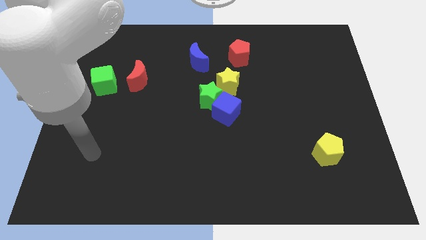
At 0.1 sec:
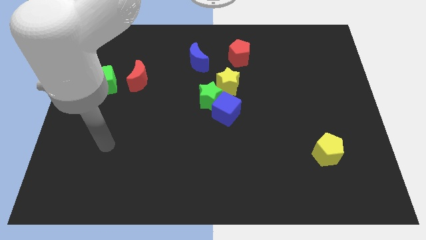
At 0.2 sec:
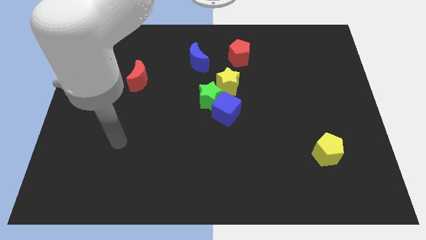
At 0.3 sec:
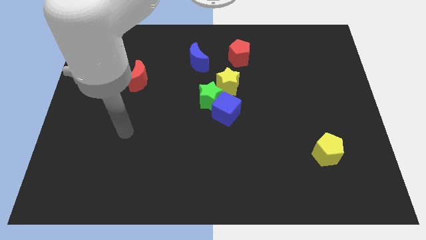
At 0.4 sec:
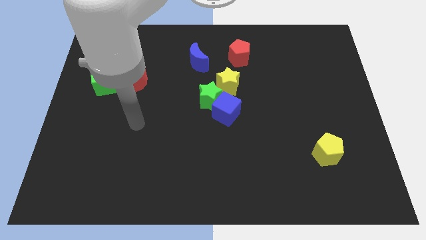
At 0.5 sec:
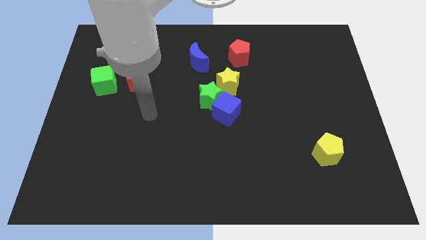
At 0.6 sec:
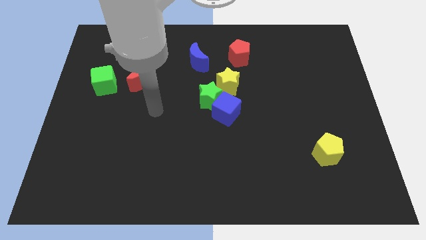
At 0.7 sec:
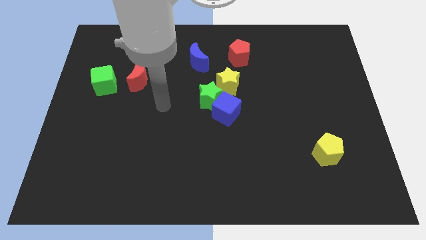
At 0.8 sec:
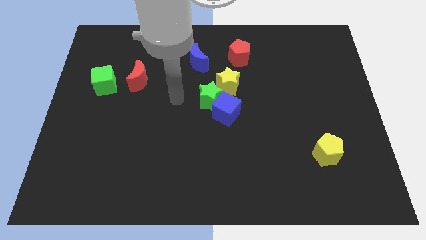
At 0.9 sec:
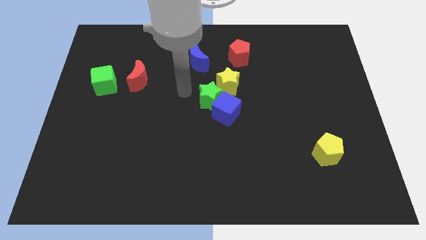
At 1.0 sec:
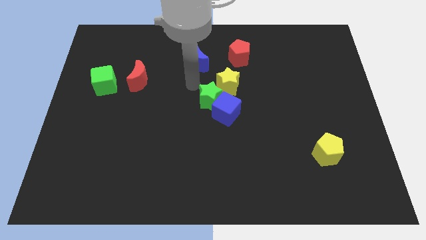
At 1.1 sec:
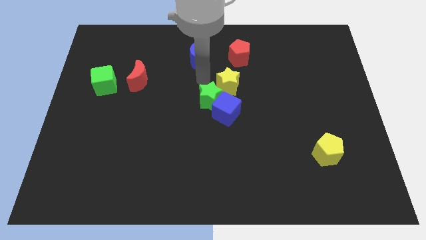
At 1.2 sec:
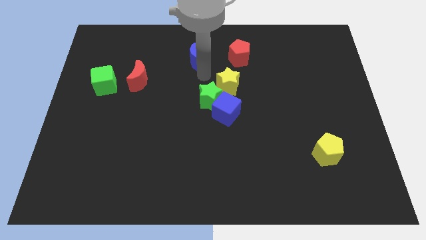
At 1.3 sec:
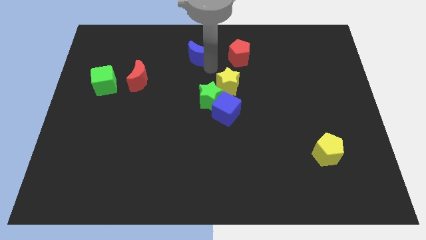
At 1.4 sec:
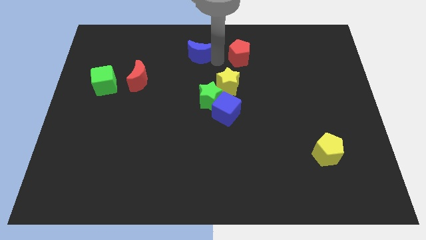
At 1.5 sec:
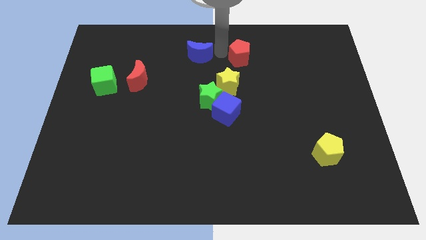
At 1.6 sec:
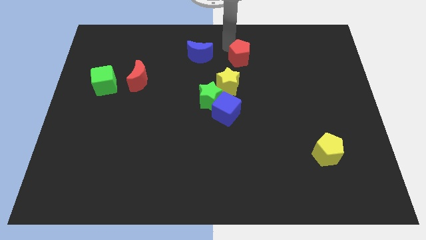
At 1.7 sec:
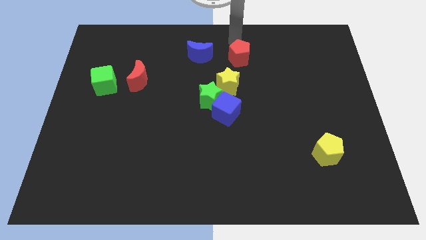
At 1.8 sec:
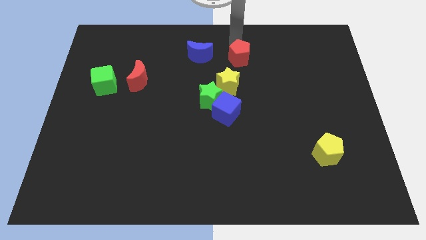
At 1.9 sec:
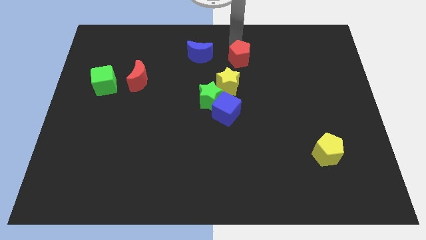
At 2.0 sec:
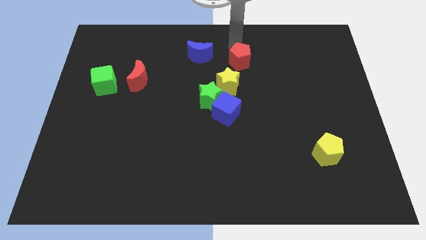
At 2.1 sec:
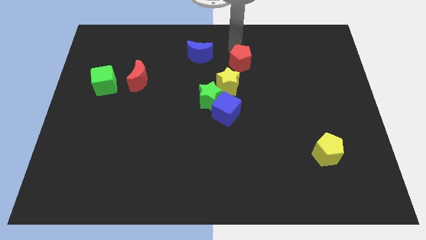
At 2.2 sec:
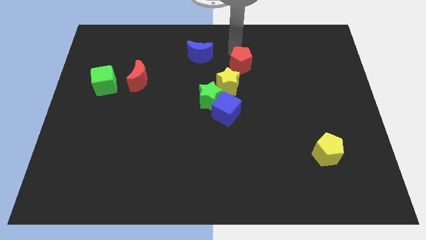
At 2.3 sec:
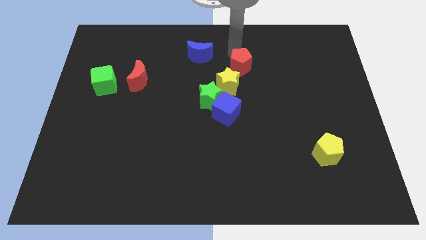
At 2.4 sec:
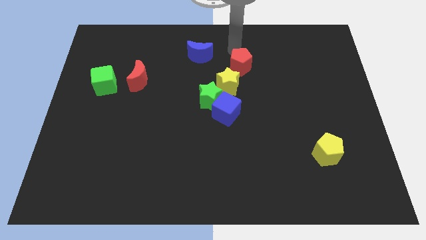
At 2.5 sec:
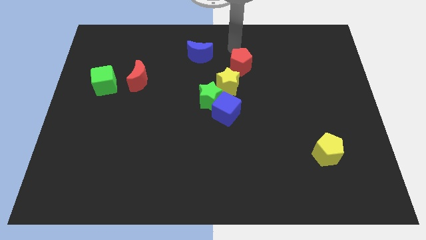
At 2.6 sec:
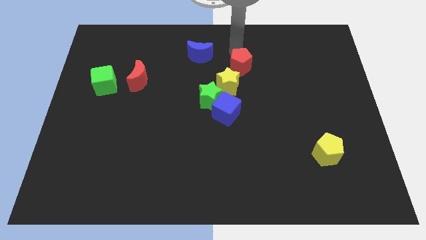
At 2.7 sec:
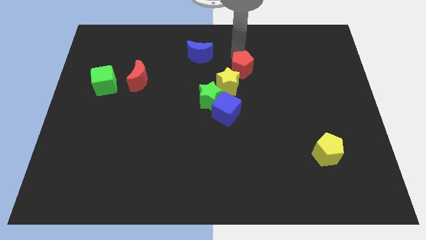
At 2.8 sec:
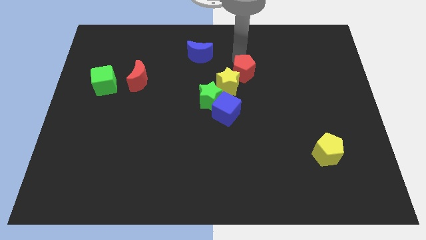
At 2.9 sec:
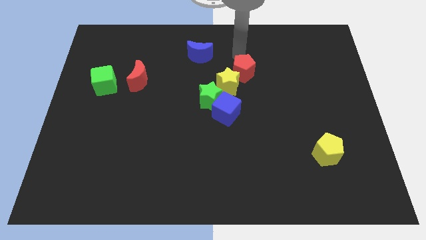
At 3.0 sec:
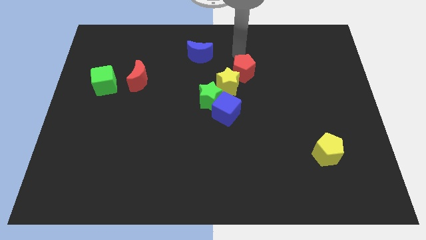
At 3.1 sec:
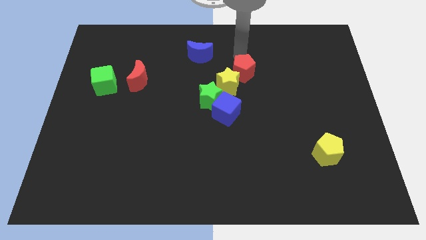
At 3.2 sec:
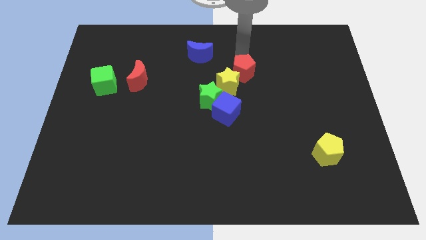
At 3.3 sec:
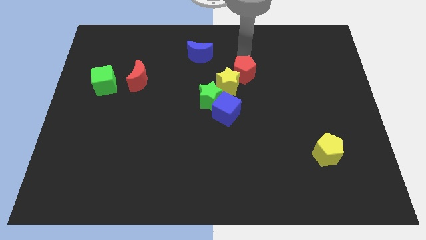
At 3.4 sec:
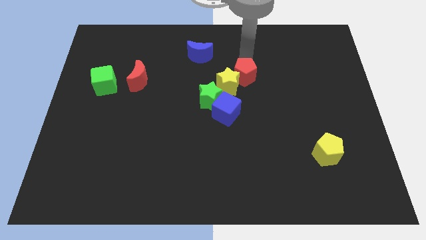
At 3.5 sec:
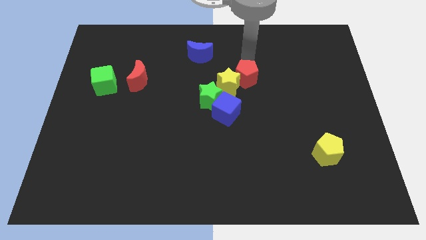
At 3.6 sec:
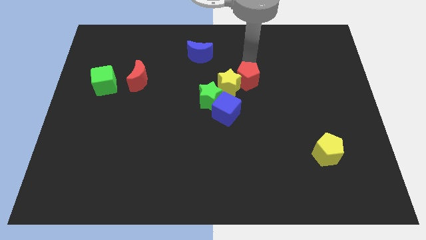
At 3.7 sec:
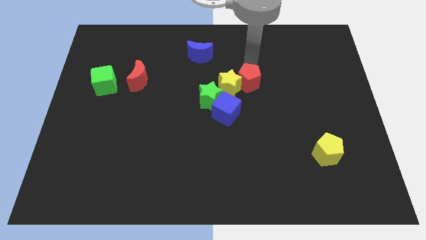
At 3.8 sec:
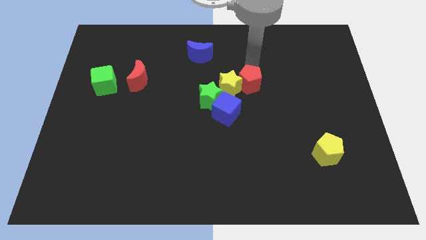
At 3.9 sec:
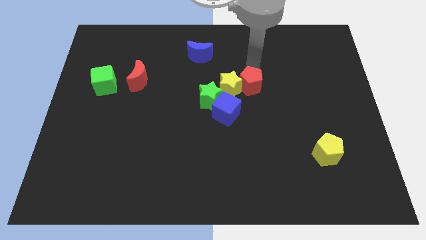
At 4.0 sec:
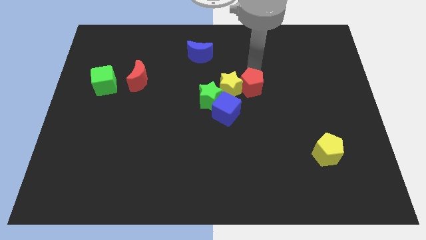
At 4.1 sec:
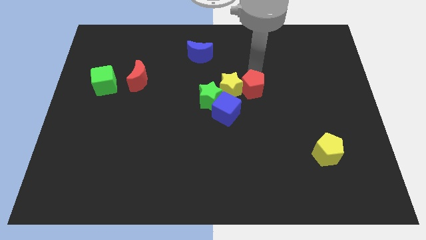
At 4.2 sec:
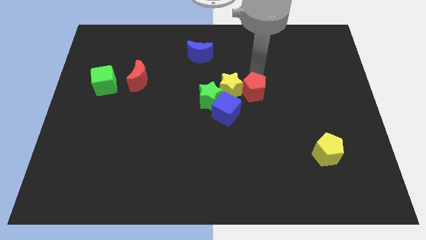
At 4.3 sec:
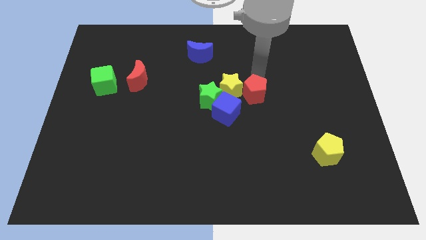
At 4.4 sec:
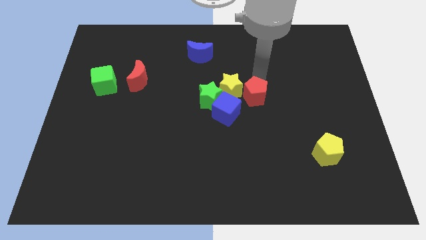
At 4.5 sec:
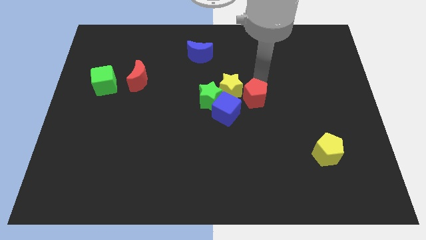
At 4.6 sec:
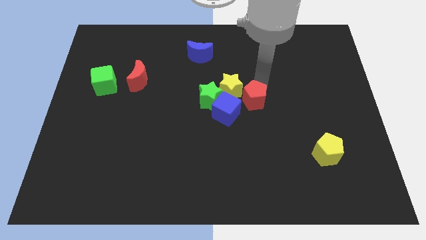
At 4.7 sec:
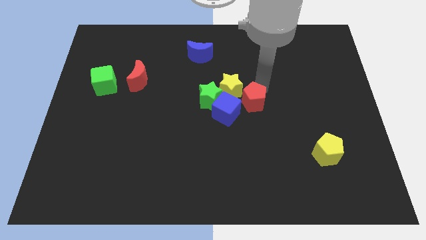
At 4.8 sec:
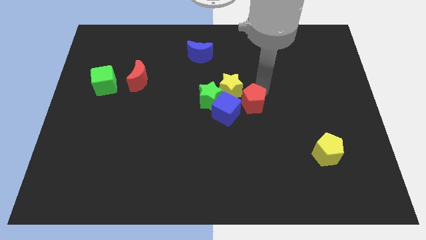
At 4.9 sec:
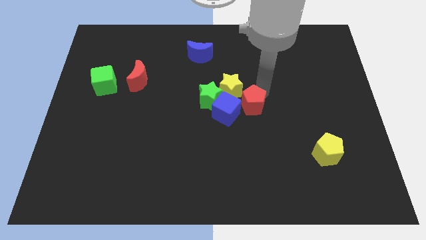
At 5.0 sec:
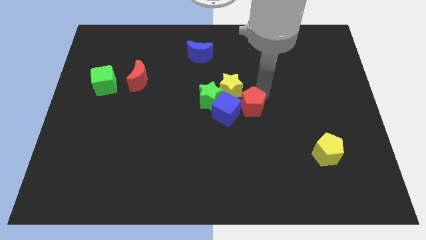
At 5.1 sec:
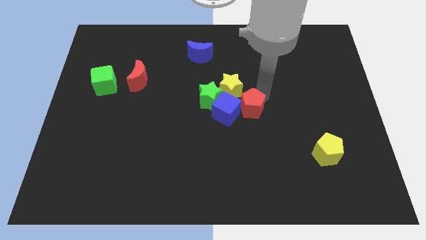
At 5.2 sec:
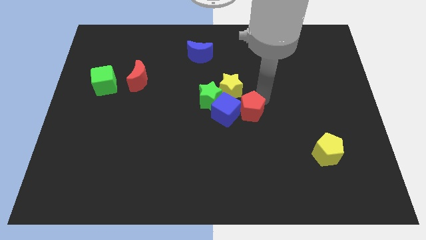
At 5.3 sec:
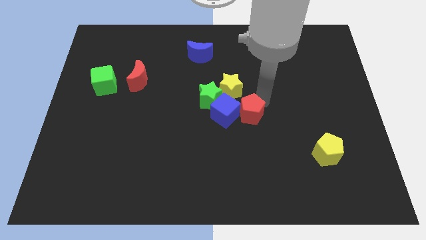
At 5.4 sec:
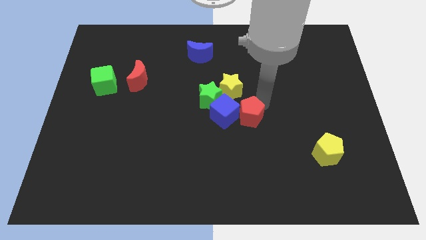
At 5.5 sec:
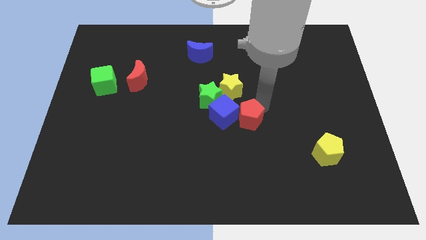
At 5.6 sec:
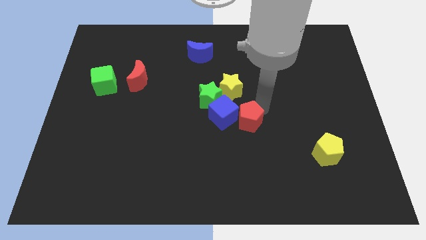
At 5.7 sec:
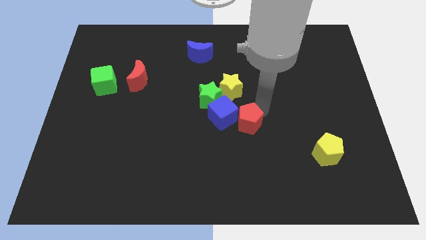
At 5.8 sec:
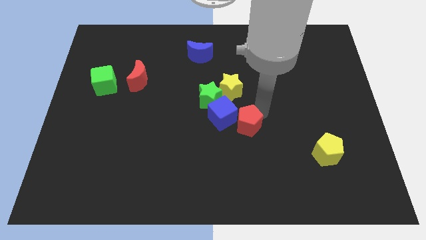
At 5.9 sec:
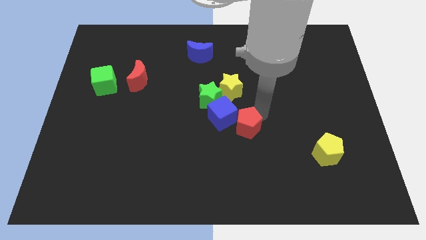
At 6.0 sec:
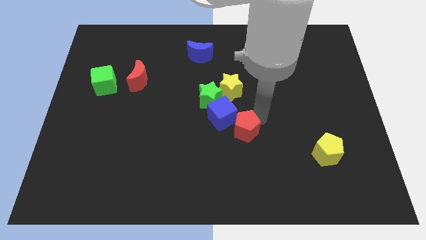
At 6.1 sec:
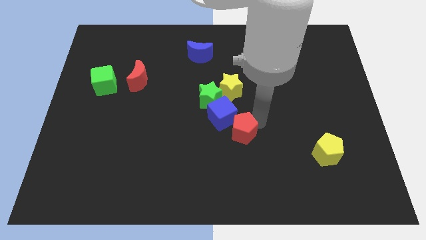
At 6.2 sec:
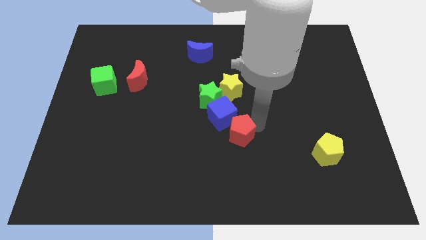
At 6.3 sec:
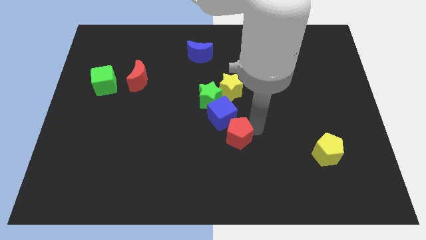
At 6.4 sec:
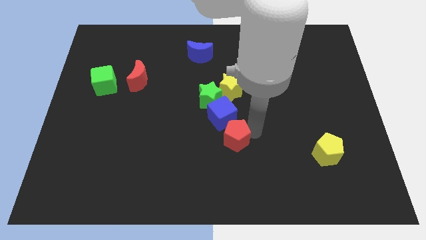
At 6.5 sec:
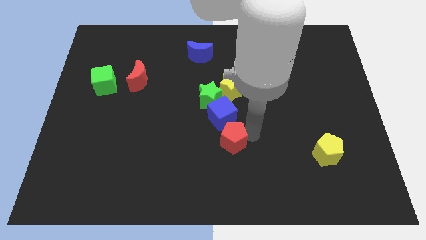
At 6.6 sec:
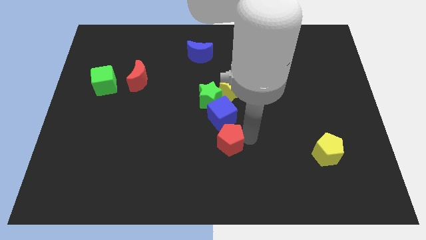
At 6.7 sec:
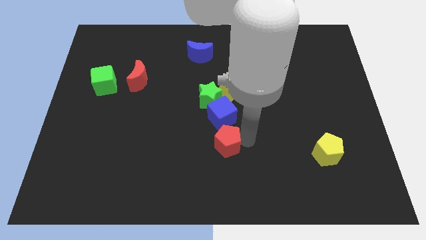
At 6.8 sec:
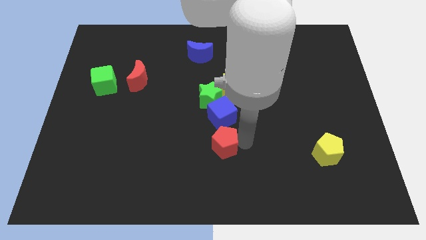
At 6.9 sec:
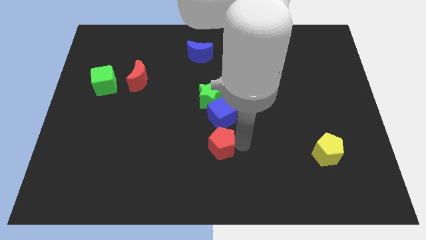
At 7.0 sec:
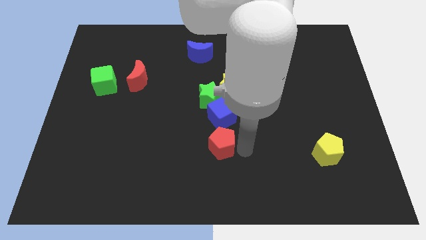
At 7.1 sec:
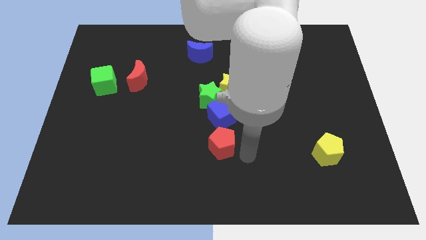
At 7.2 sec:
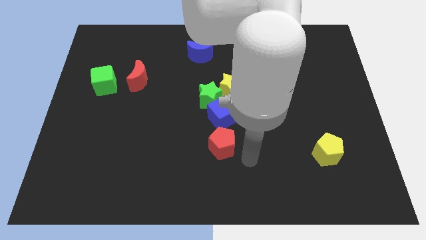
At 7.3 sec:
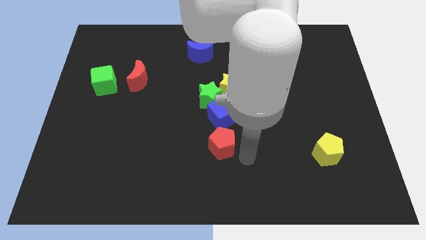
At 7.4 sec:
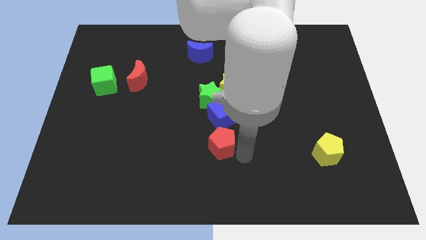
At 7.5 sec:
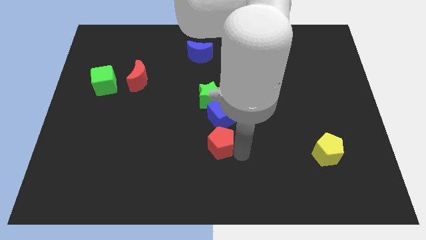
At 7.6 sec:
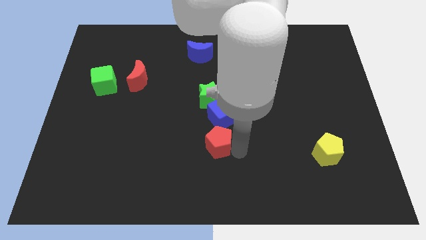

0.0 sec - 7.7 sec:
push the red pentagon to the bottom left of the blue cube
